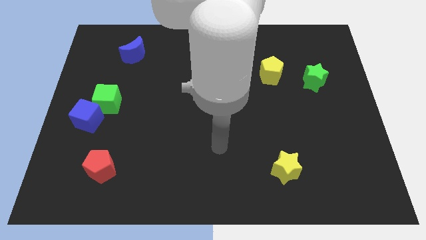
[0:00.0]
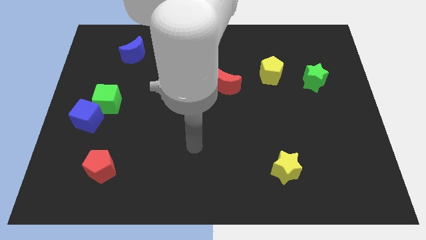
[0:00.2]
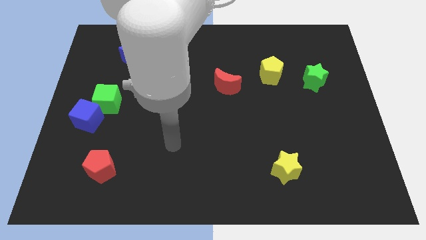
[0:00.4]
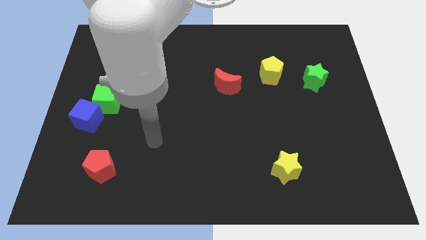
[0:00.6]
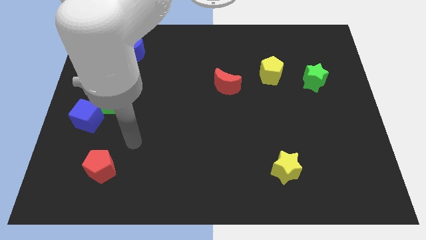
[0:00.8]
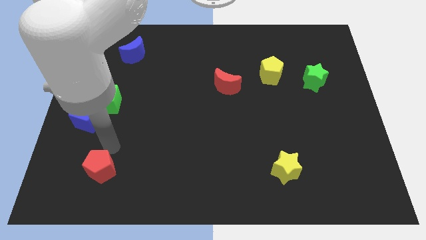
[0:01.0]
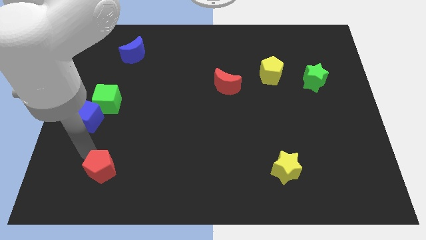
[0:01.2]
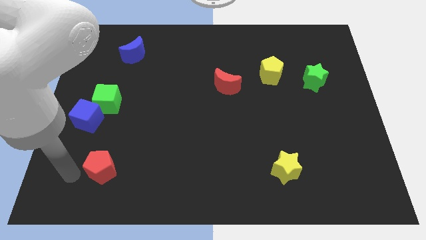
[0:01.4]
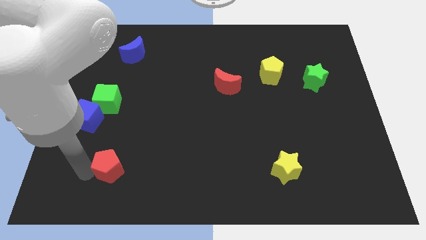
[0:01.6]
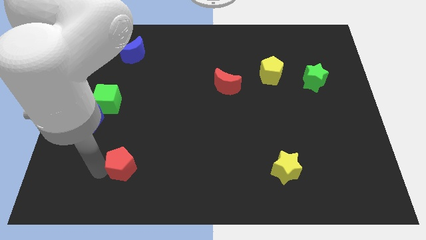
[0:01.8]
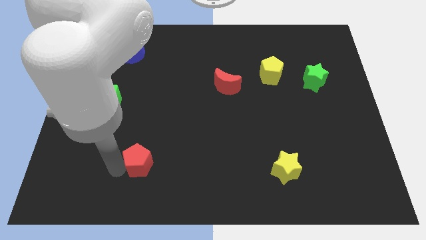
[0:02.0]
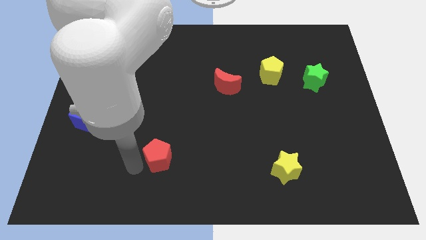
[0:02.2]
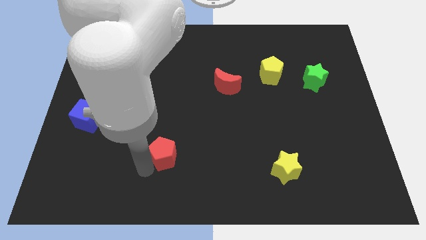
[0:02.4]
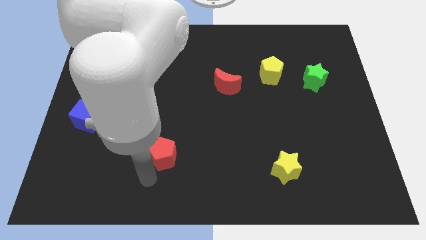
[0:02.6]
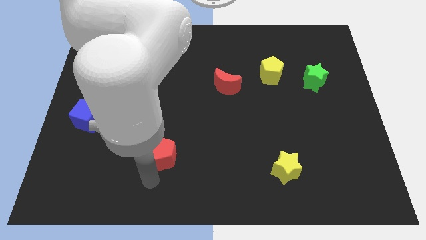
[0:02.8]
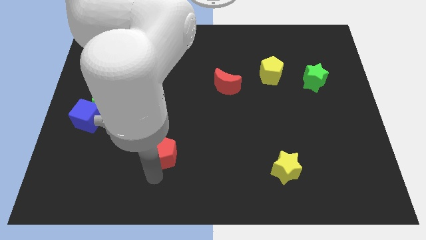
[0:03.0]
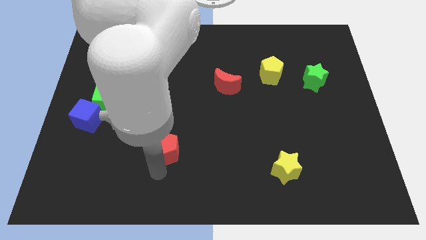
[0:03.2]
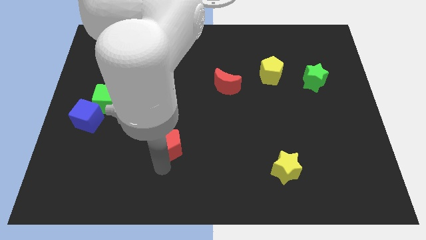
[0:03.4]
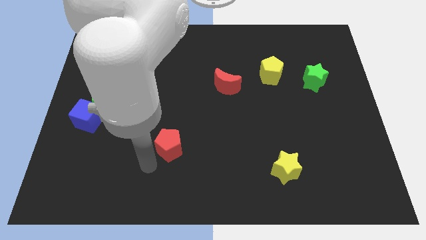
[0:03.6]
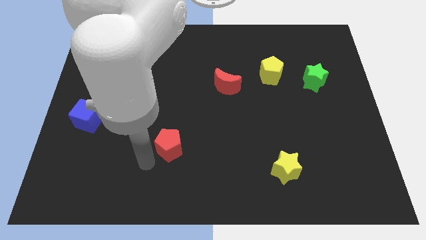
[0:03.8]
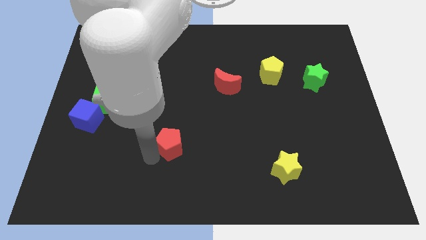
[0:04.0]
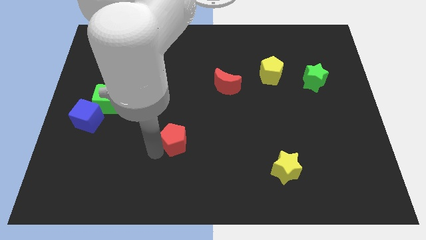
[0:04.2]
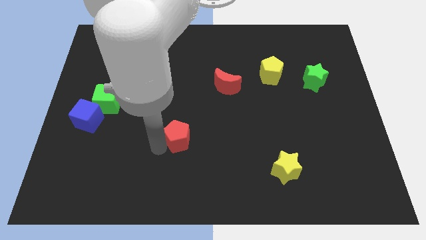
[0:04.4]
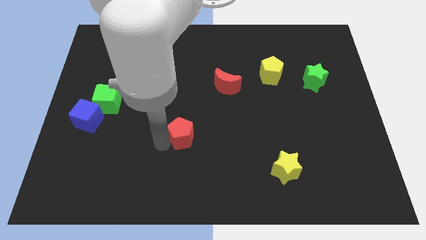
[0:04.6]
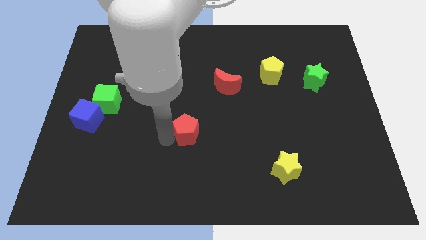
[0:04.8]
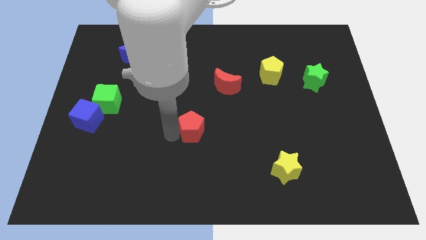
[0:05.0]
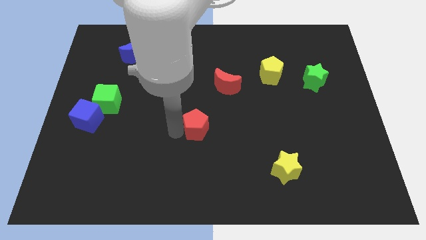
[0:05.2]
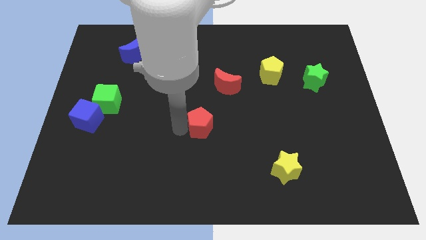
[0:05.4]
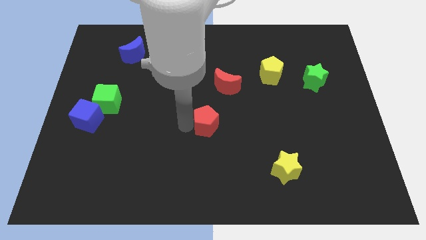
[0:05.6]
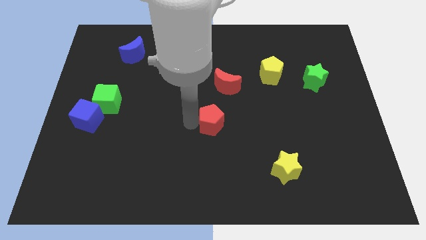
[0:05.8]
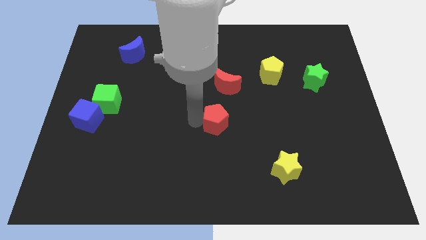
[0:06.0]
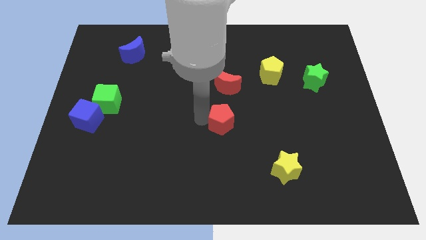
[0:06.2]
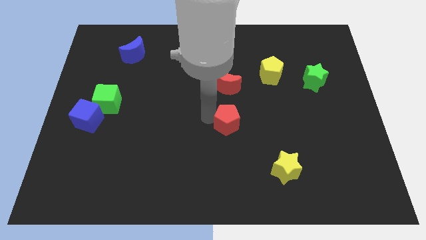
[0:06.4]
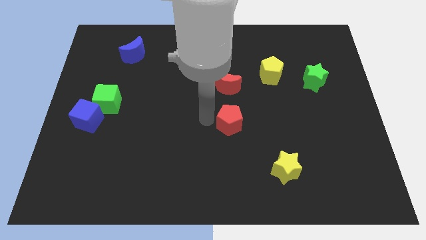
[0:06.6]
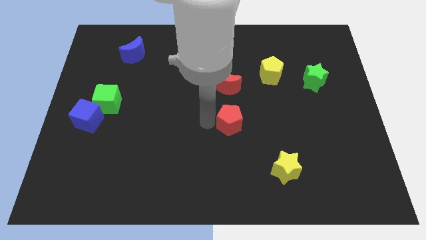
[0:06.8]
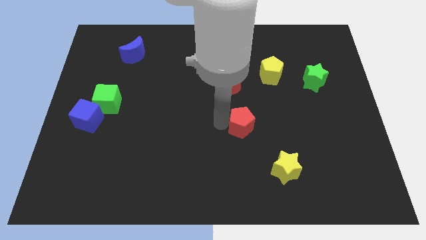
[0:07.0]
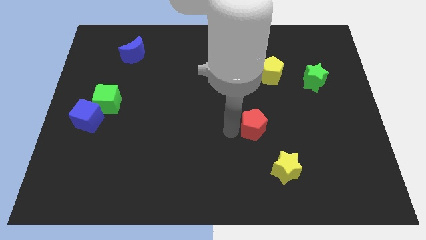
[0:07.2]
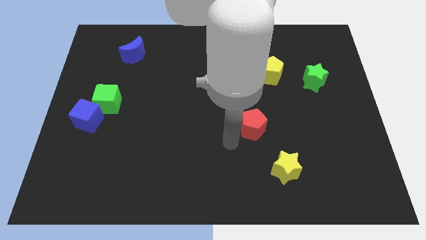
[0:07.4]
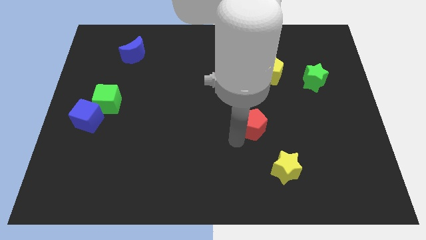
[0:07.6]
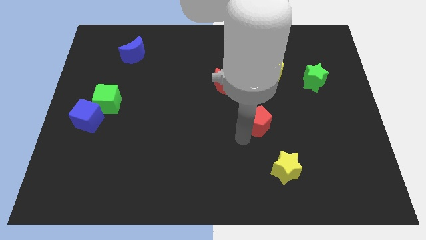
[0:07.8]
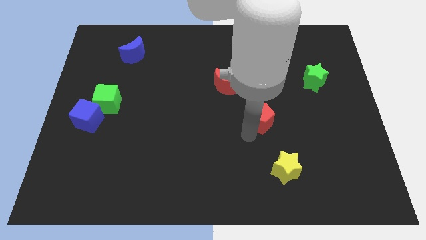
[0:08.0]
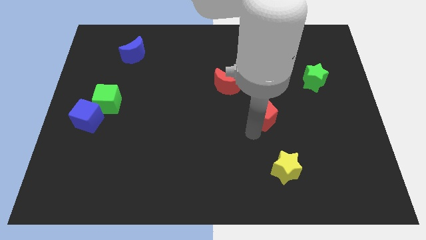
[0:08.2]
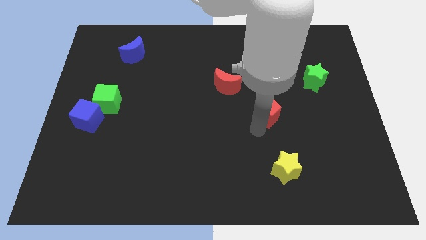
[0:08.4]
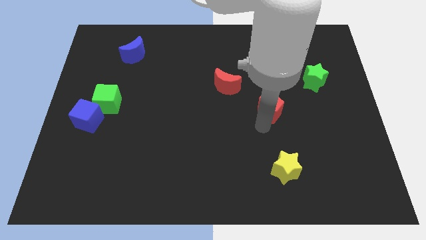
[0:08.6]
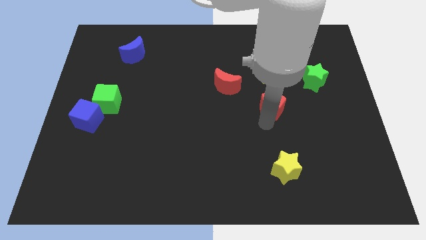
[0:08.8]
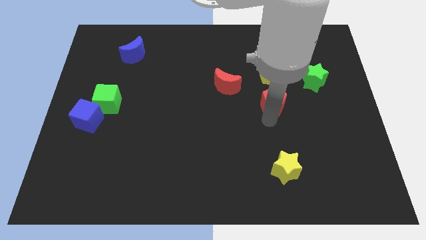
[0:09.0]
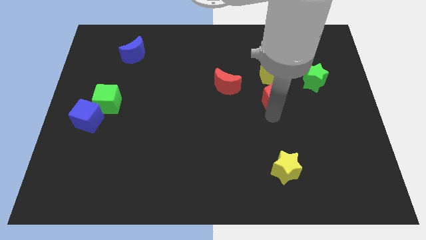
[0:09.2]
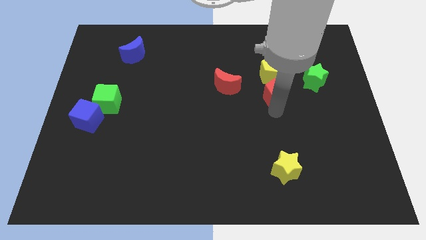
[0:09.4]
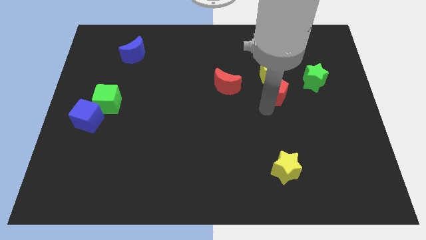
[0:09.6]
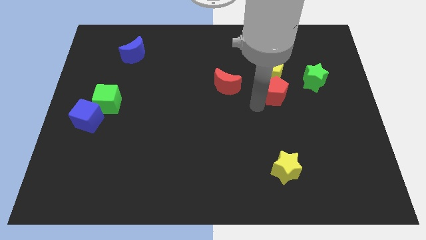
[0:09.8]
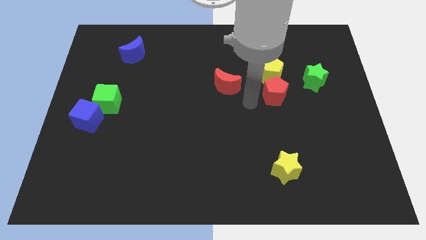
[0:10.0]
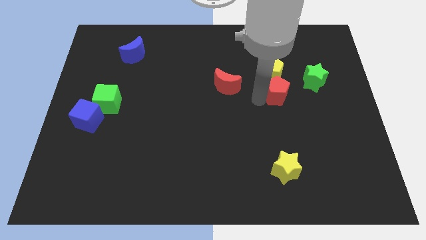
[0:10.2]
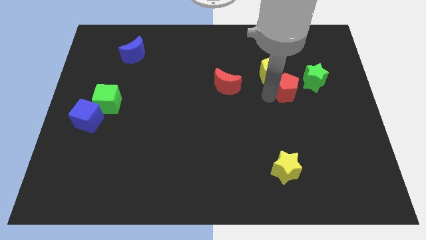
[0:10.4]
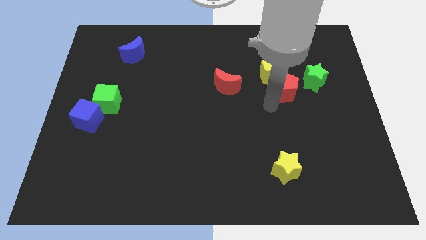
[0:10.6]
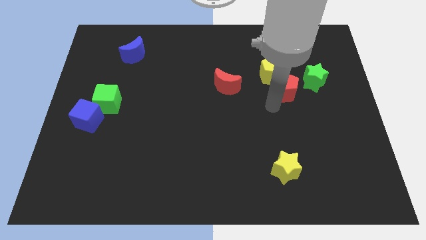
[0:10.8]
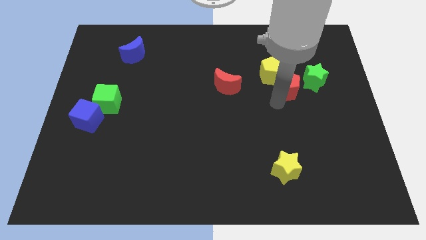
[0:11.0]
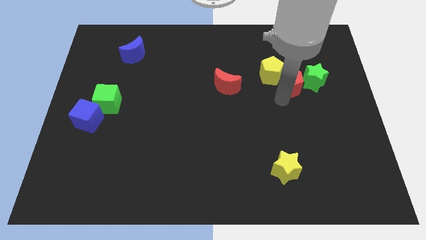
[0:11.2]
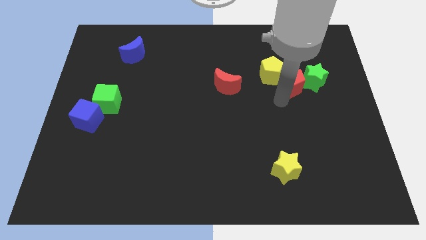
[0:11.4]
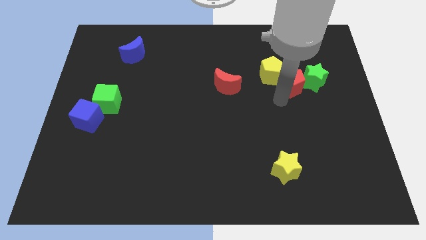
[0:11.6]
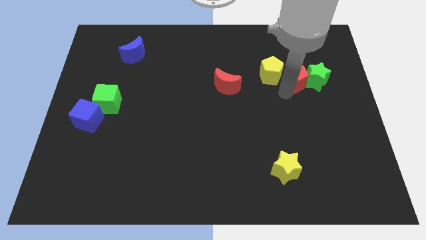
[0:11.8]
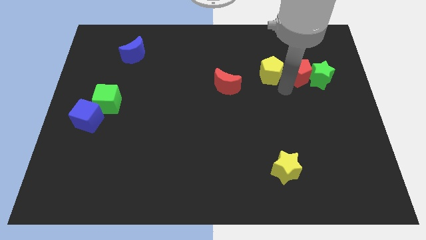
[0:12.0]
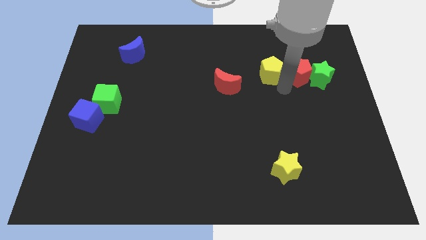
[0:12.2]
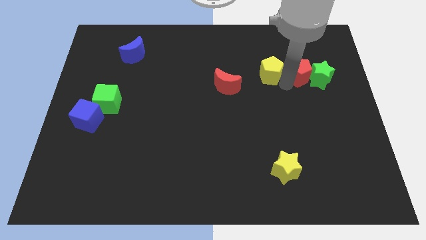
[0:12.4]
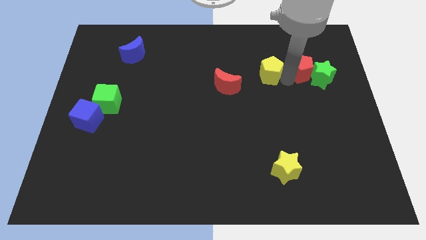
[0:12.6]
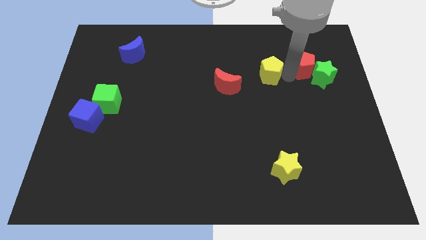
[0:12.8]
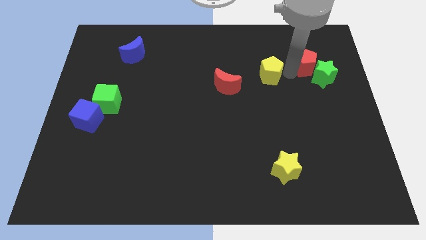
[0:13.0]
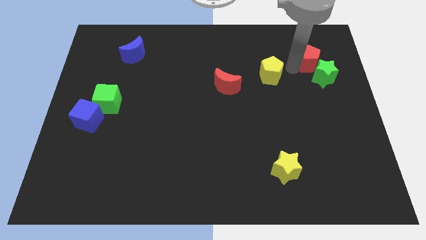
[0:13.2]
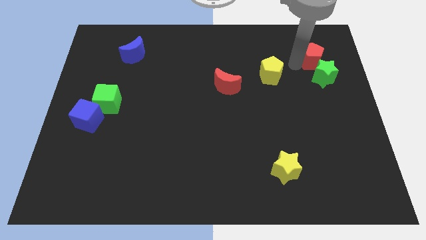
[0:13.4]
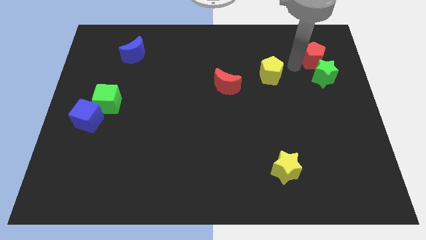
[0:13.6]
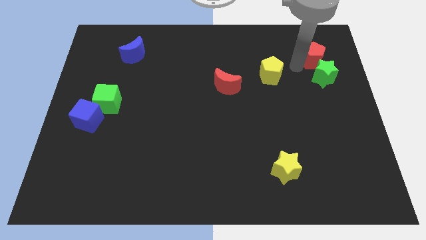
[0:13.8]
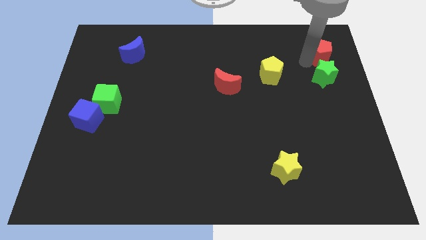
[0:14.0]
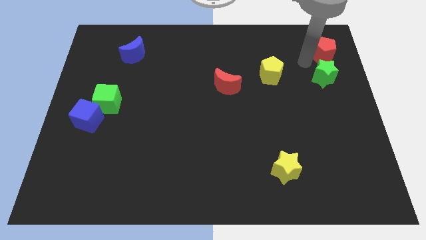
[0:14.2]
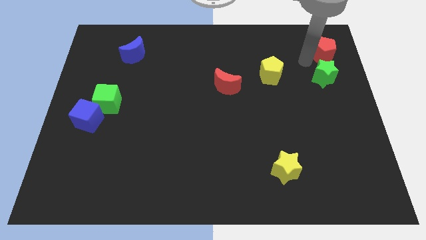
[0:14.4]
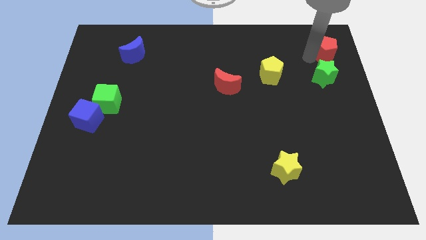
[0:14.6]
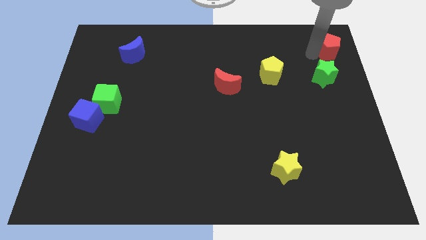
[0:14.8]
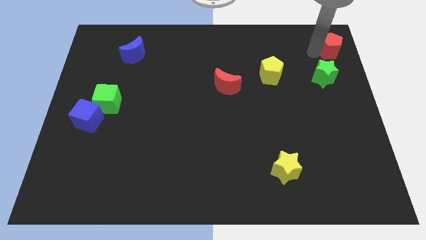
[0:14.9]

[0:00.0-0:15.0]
move the red pentagon to the top right
